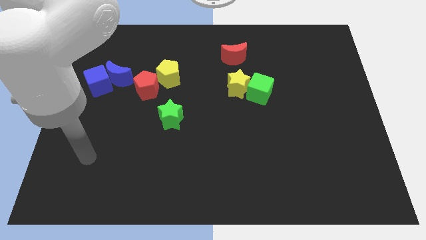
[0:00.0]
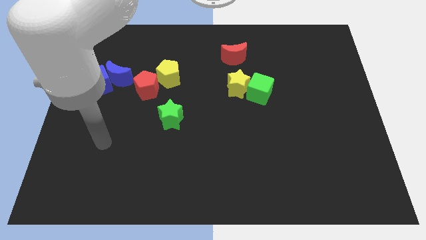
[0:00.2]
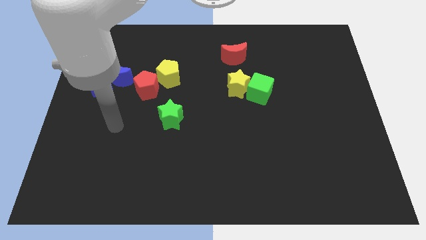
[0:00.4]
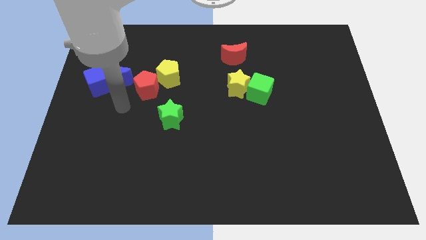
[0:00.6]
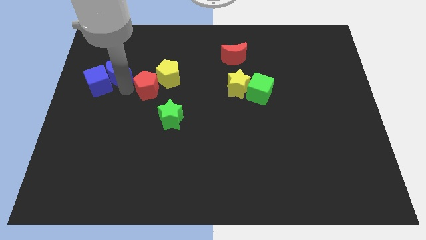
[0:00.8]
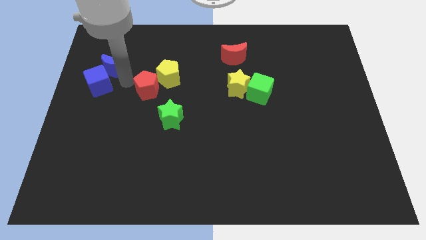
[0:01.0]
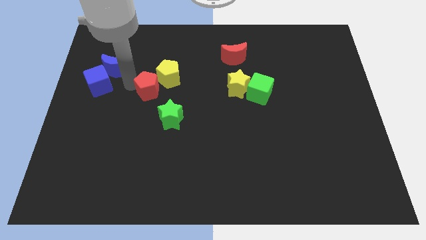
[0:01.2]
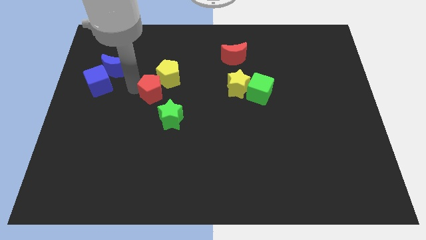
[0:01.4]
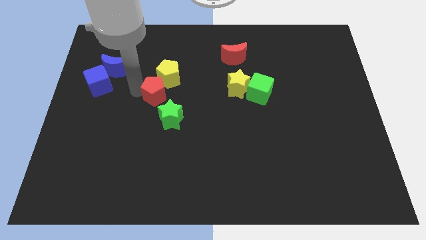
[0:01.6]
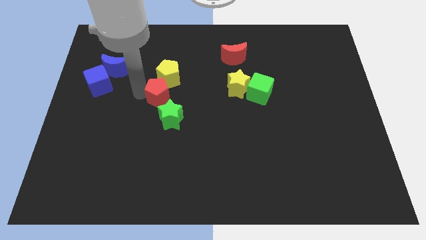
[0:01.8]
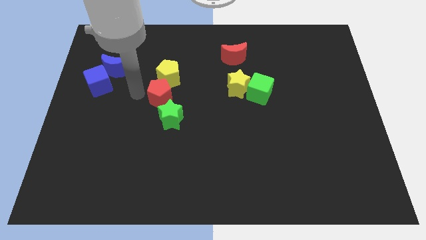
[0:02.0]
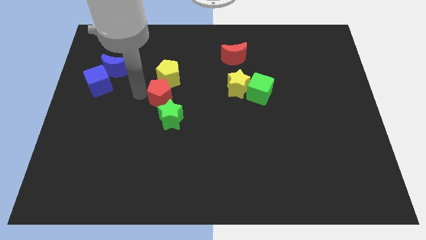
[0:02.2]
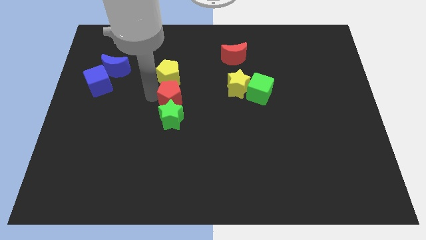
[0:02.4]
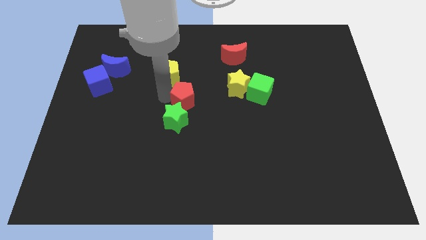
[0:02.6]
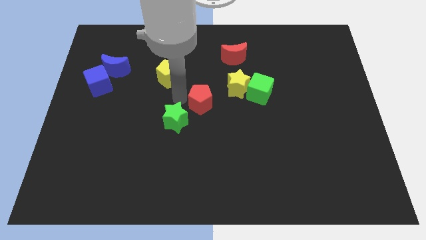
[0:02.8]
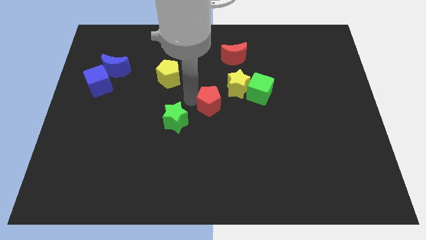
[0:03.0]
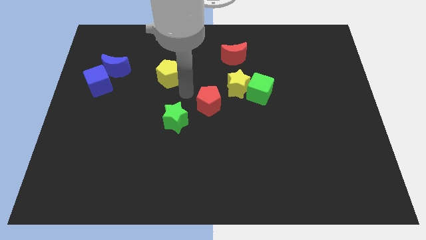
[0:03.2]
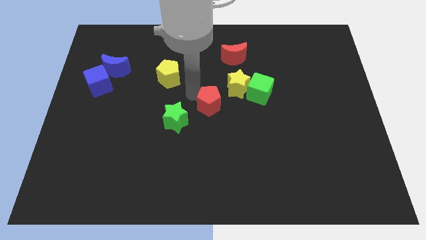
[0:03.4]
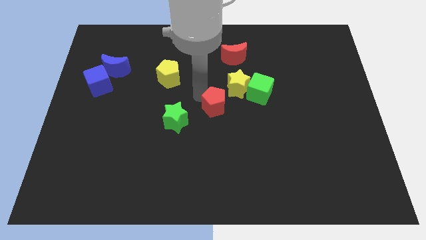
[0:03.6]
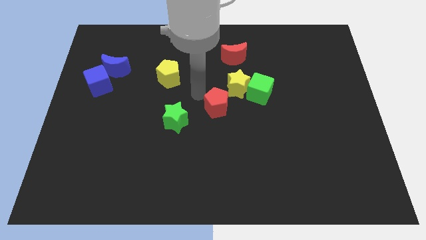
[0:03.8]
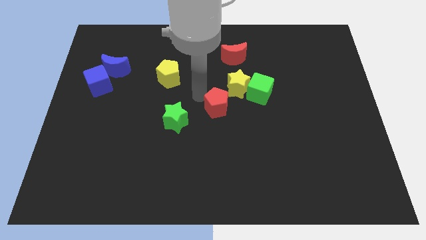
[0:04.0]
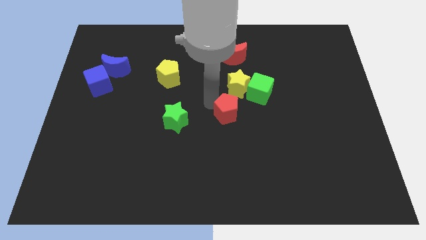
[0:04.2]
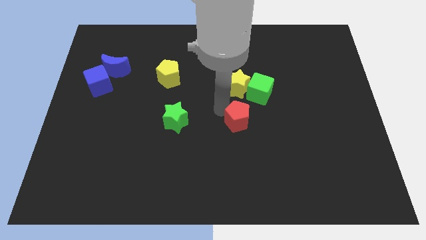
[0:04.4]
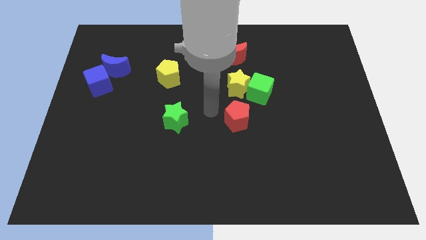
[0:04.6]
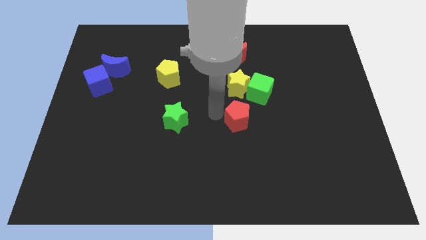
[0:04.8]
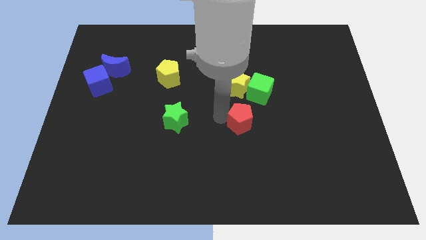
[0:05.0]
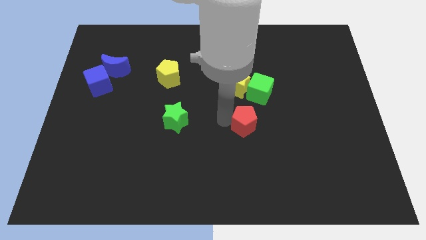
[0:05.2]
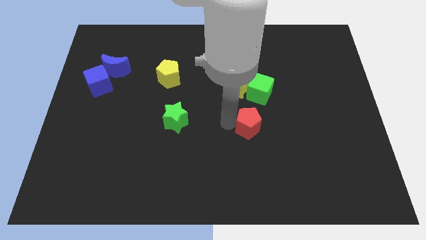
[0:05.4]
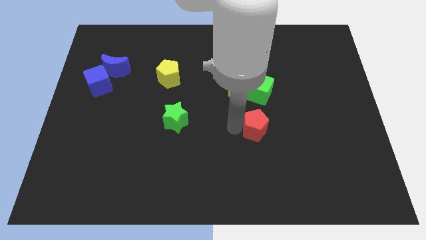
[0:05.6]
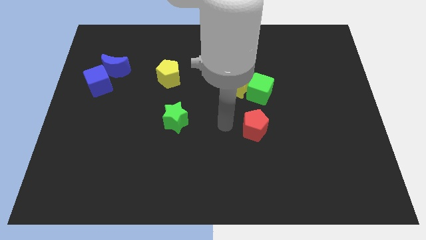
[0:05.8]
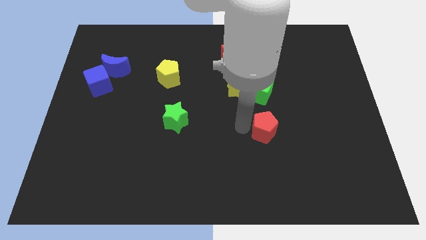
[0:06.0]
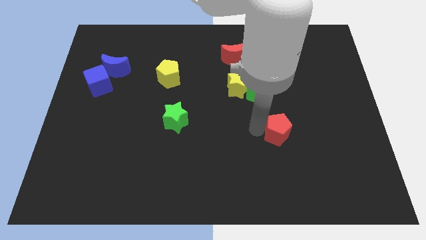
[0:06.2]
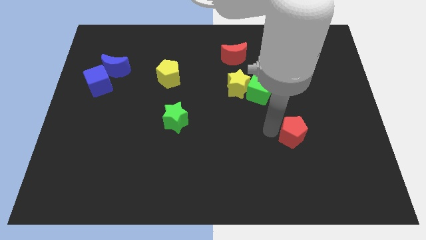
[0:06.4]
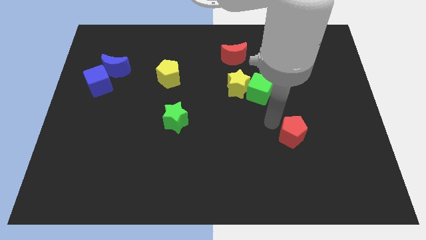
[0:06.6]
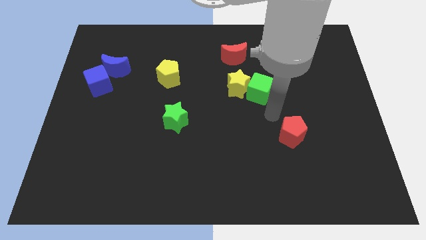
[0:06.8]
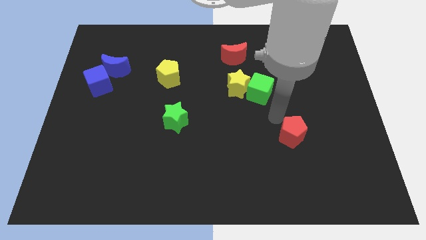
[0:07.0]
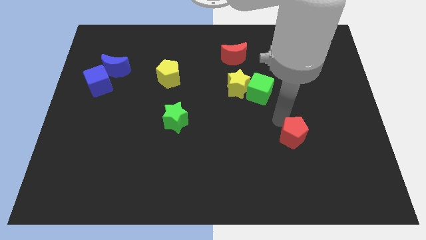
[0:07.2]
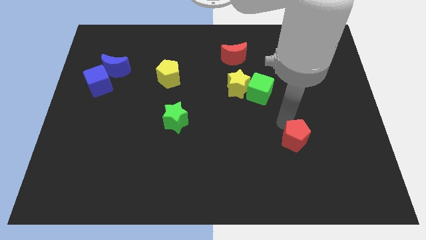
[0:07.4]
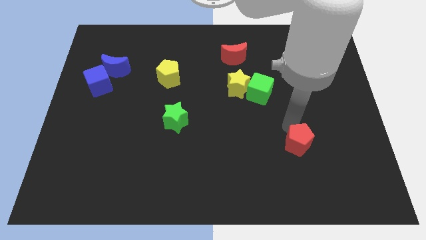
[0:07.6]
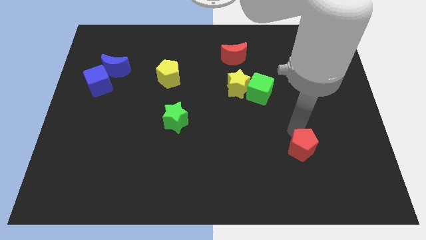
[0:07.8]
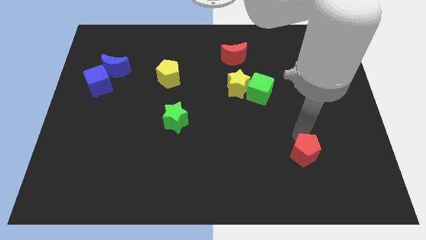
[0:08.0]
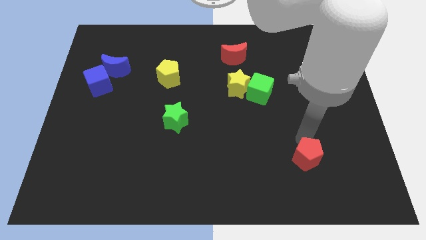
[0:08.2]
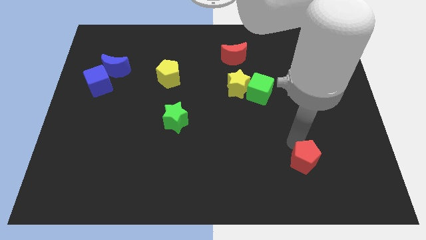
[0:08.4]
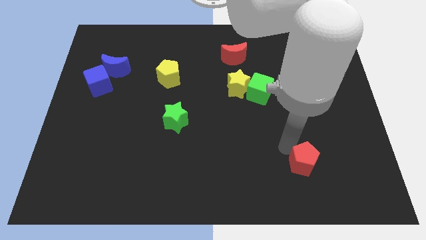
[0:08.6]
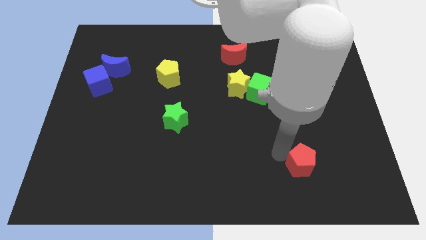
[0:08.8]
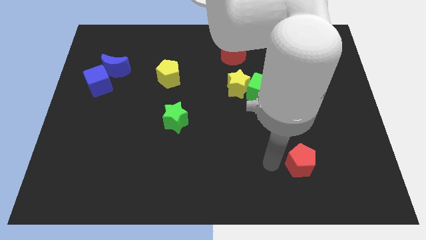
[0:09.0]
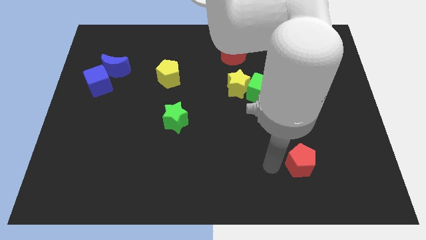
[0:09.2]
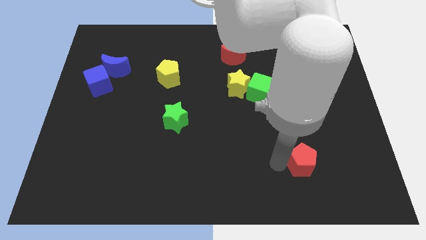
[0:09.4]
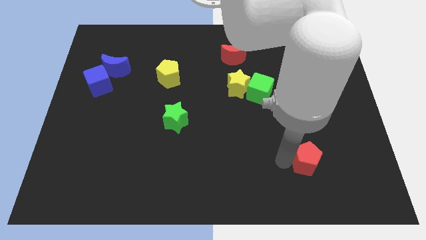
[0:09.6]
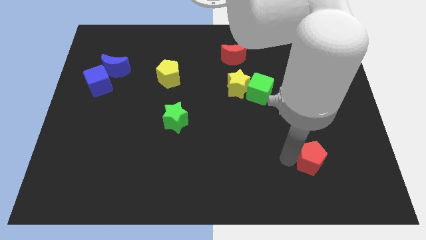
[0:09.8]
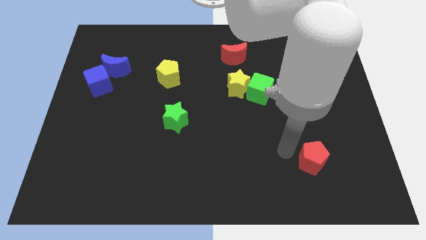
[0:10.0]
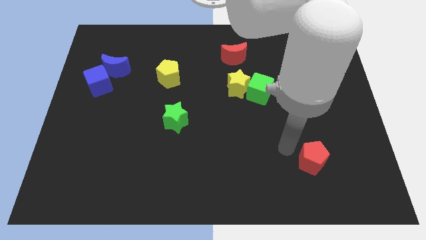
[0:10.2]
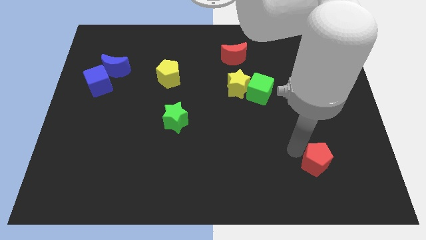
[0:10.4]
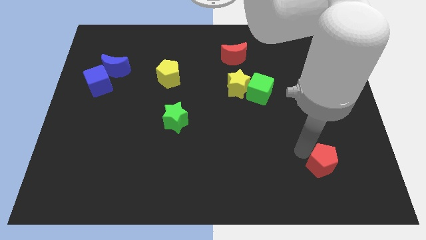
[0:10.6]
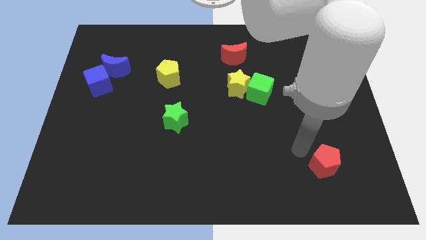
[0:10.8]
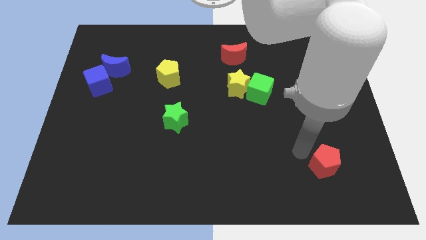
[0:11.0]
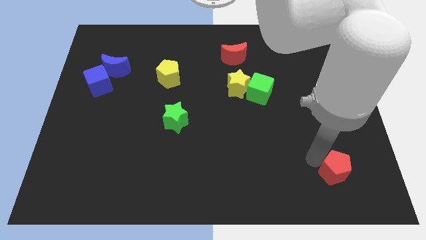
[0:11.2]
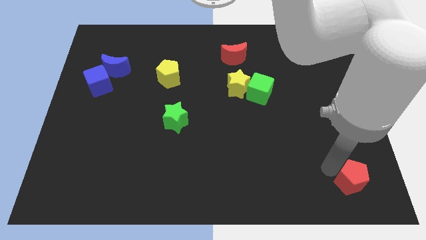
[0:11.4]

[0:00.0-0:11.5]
put the red pentagon to the bottom right of the board

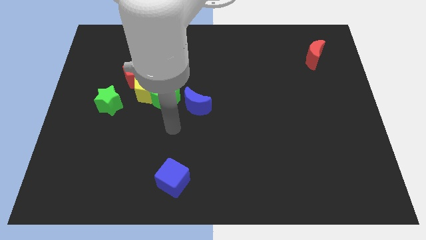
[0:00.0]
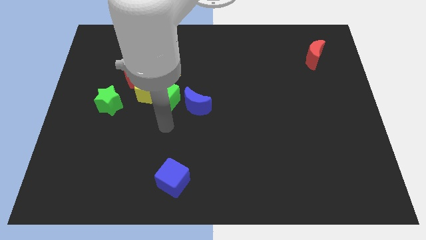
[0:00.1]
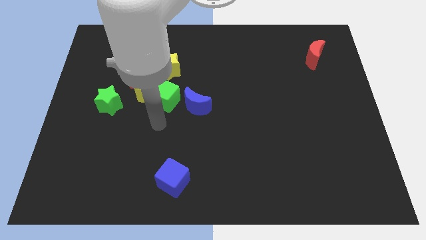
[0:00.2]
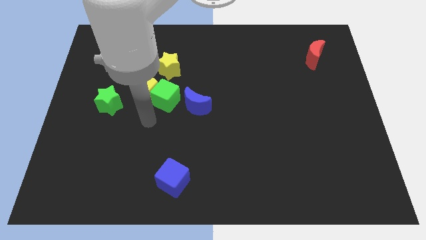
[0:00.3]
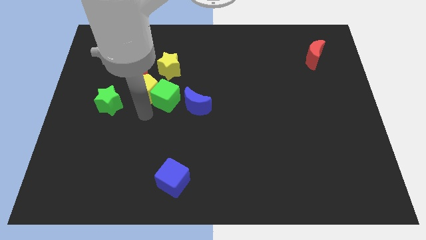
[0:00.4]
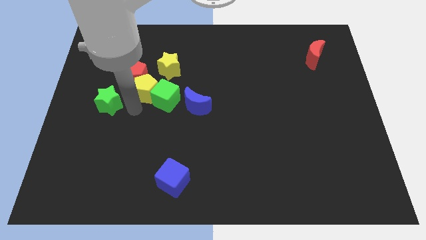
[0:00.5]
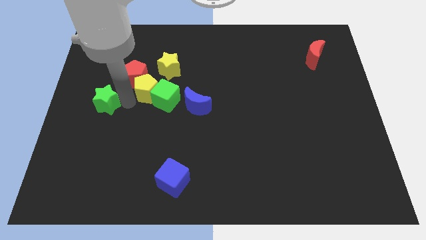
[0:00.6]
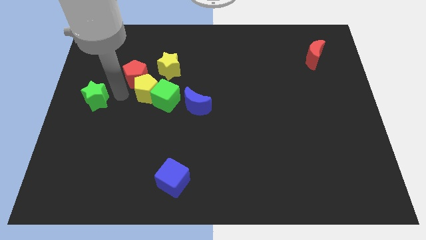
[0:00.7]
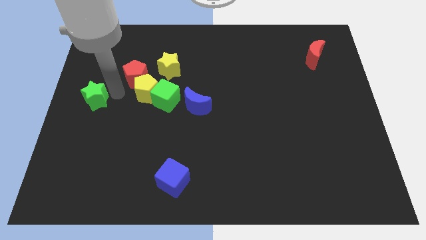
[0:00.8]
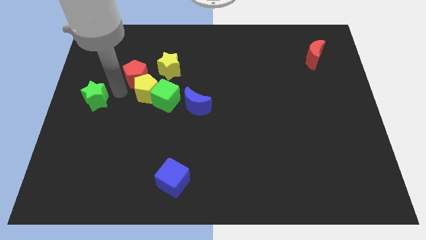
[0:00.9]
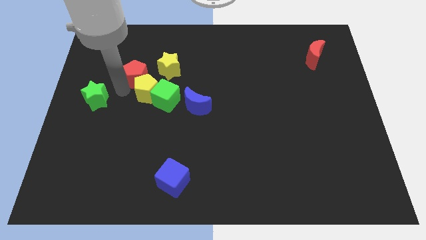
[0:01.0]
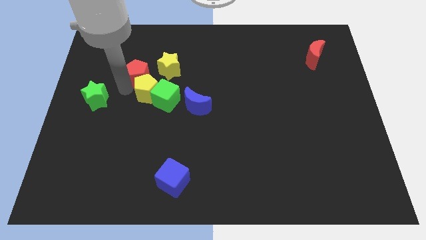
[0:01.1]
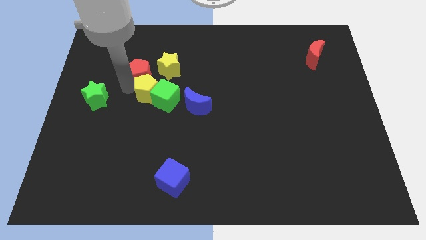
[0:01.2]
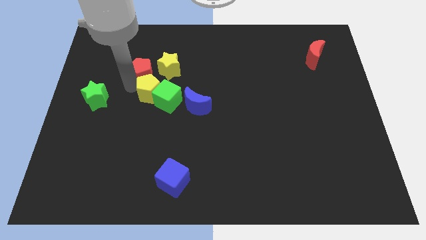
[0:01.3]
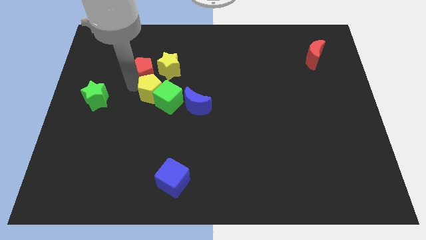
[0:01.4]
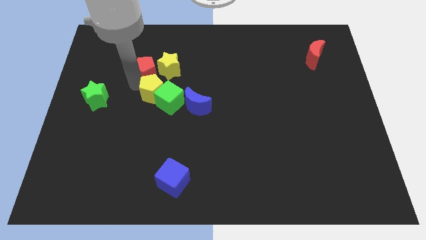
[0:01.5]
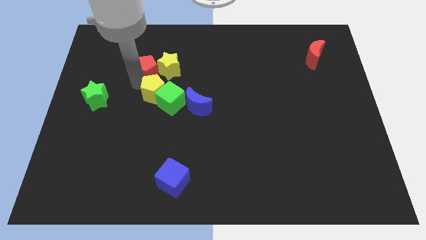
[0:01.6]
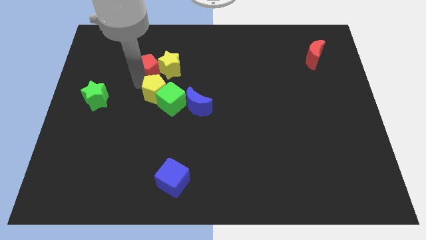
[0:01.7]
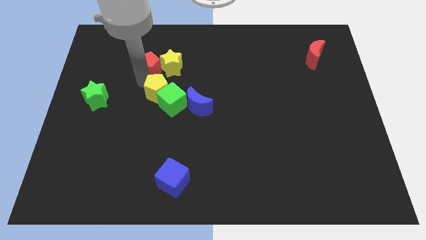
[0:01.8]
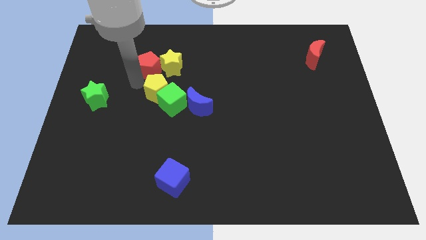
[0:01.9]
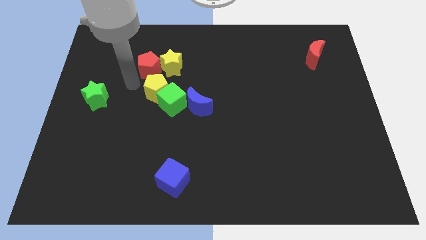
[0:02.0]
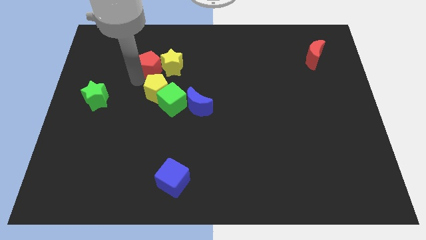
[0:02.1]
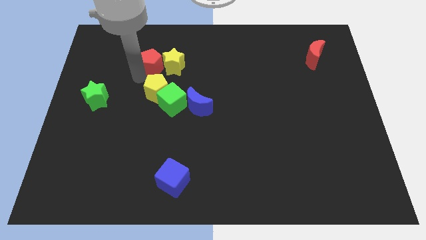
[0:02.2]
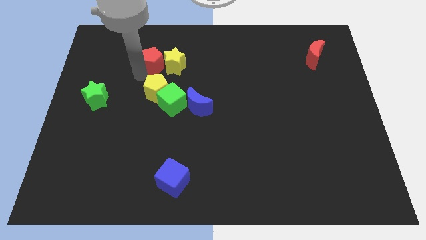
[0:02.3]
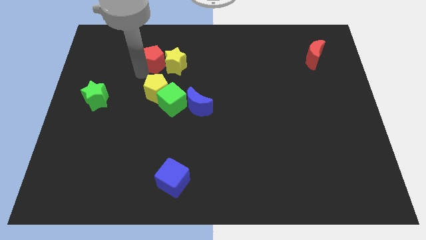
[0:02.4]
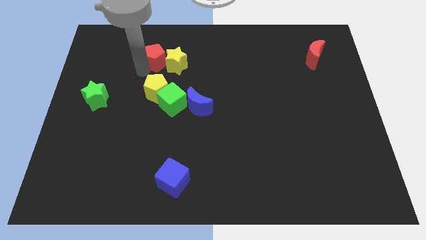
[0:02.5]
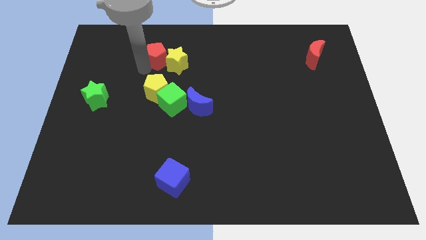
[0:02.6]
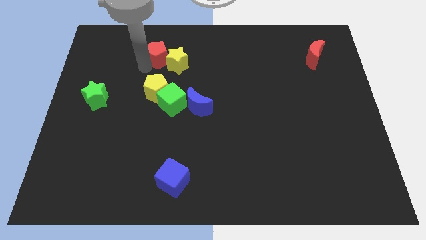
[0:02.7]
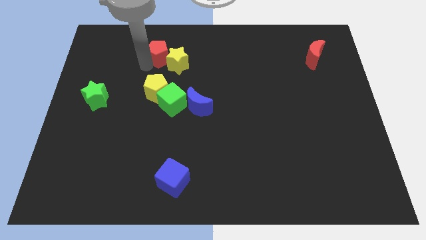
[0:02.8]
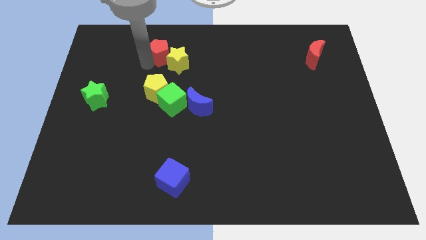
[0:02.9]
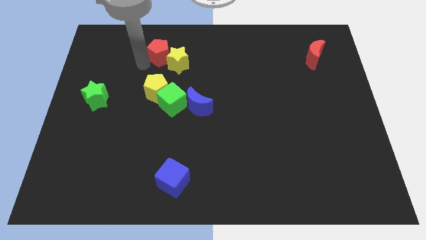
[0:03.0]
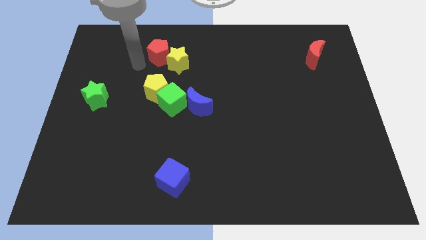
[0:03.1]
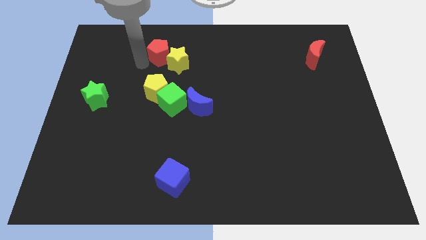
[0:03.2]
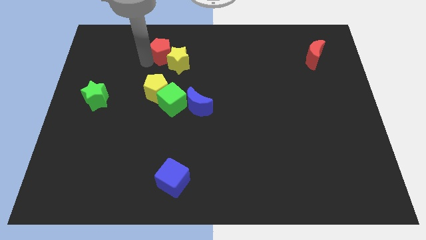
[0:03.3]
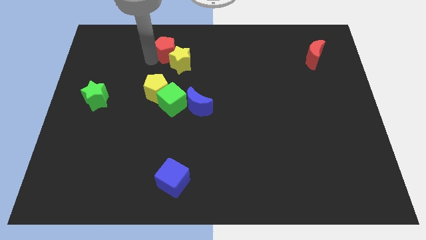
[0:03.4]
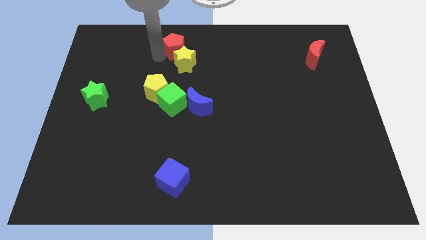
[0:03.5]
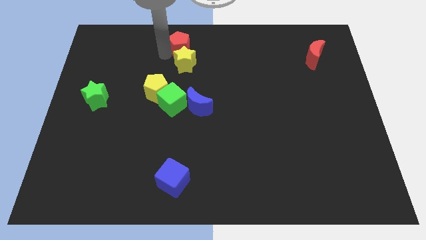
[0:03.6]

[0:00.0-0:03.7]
move the red pentagon to the towards your base
